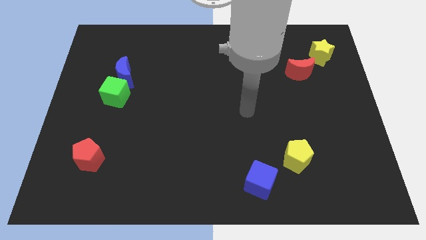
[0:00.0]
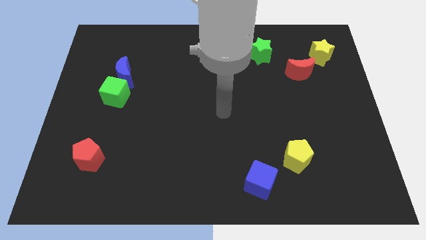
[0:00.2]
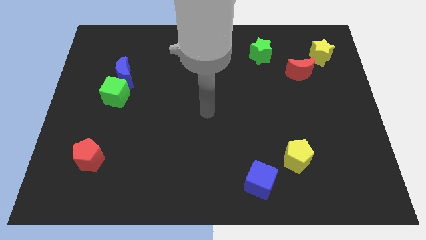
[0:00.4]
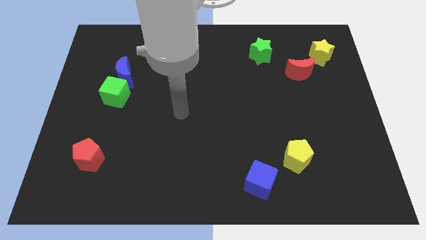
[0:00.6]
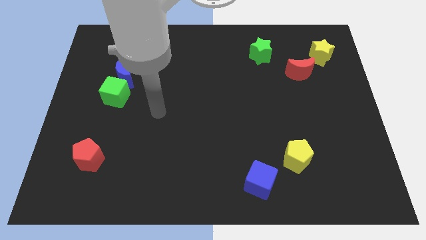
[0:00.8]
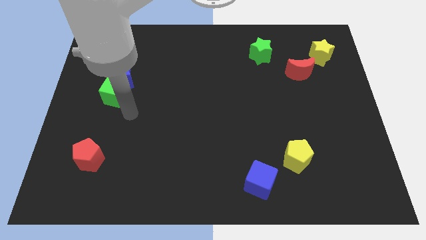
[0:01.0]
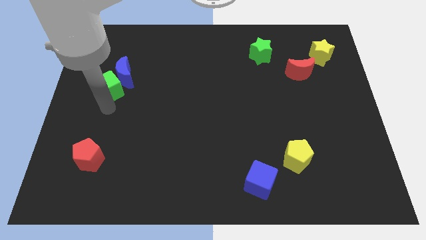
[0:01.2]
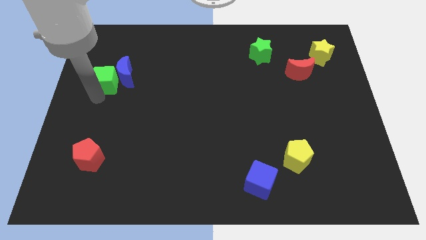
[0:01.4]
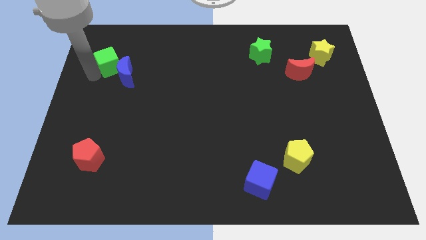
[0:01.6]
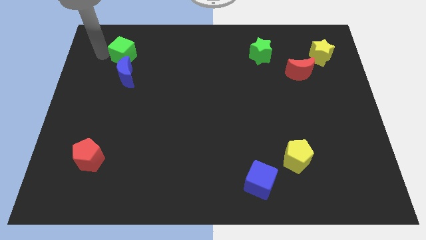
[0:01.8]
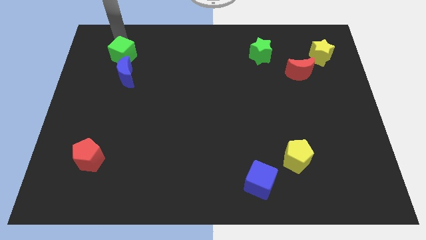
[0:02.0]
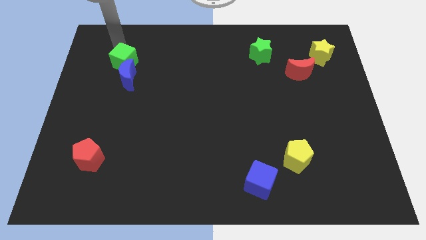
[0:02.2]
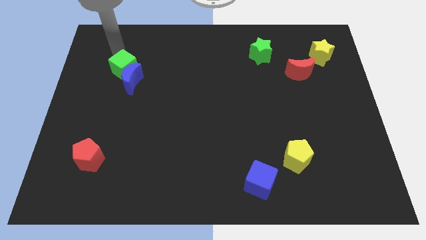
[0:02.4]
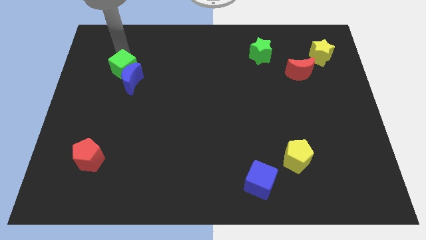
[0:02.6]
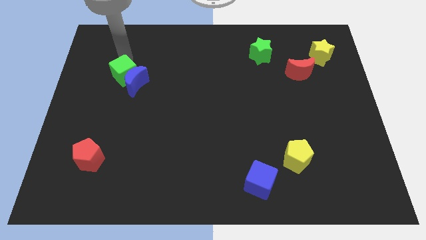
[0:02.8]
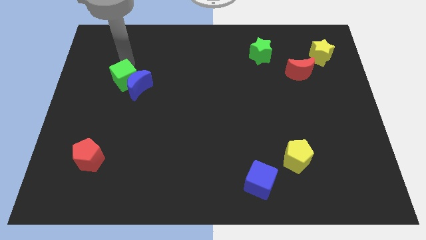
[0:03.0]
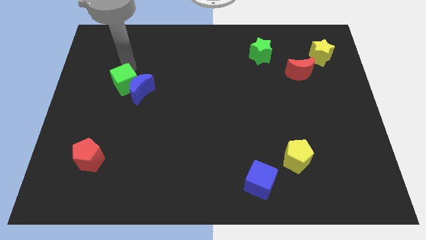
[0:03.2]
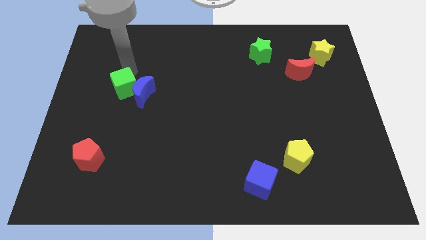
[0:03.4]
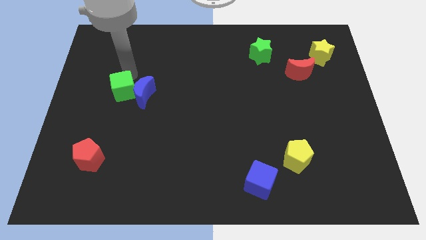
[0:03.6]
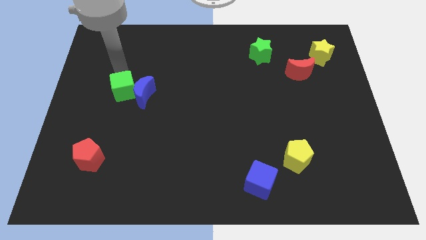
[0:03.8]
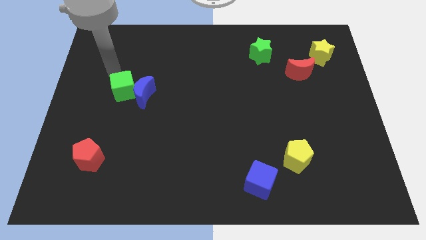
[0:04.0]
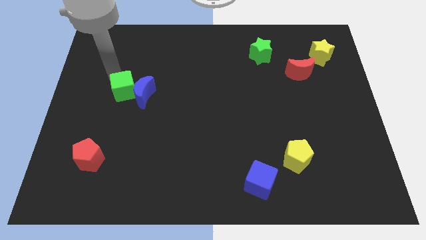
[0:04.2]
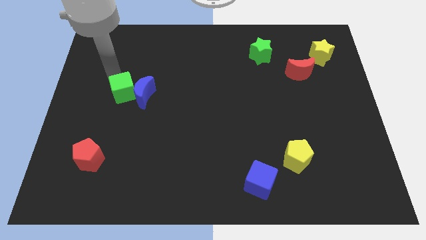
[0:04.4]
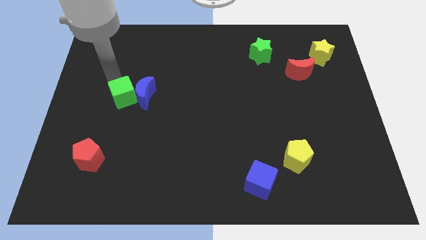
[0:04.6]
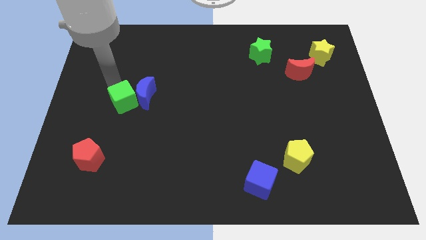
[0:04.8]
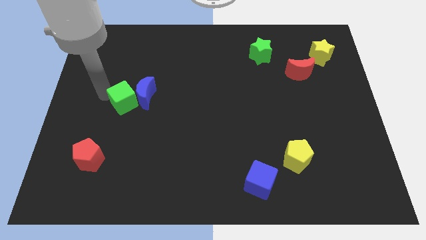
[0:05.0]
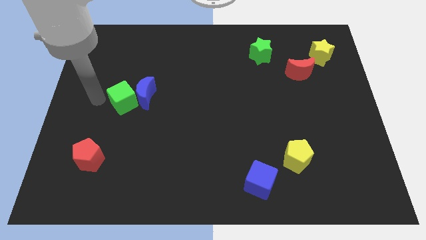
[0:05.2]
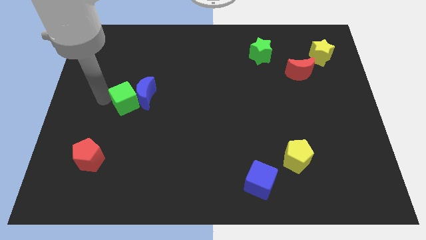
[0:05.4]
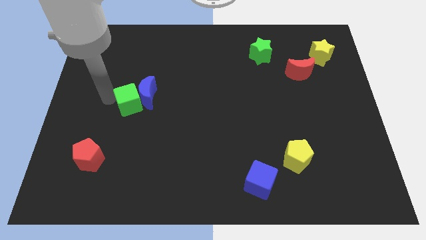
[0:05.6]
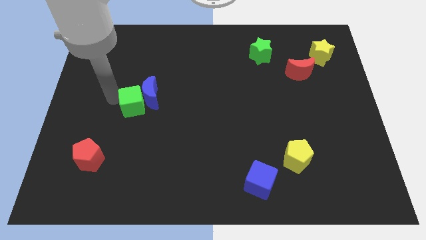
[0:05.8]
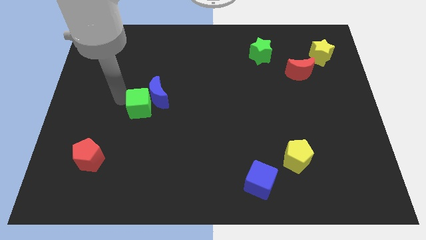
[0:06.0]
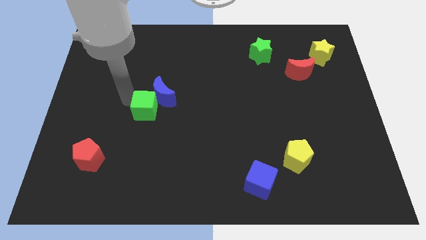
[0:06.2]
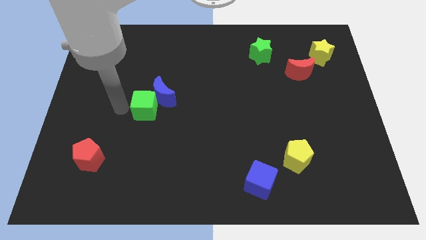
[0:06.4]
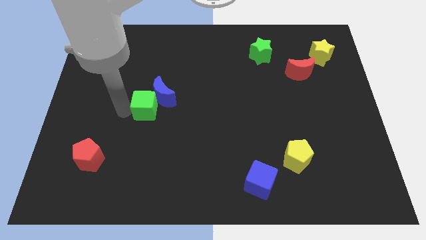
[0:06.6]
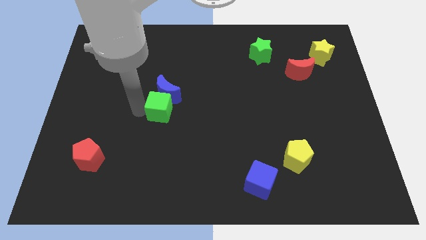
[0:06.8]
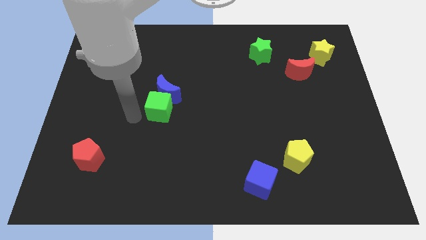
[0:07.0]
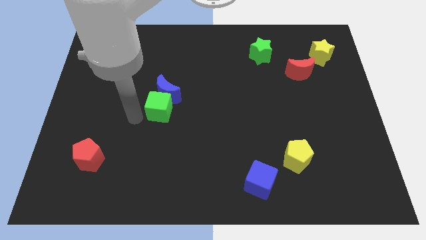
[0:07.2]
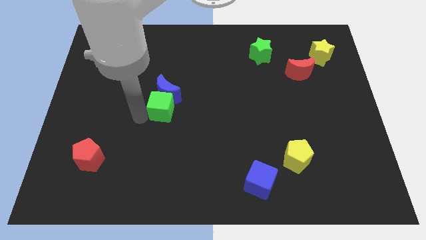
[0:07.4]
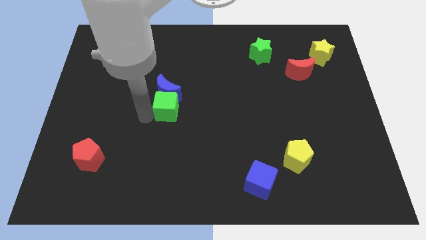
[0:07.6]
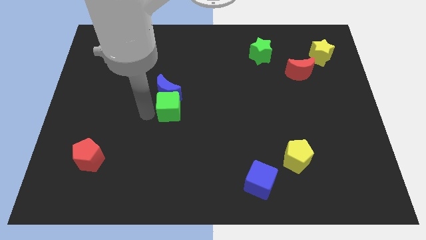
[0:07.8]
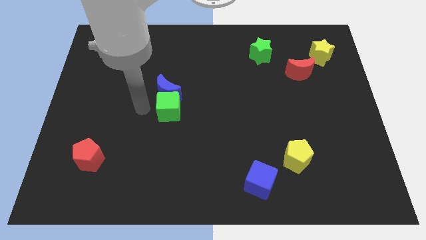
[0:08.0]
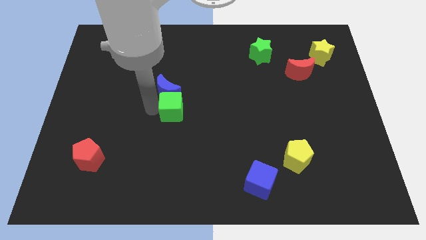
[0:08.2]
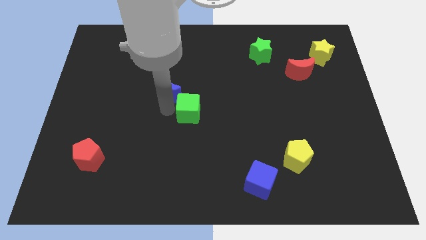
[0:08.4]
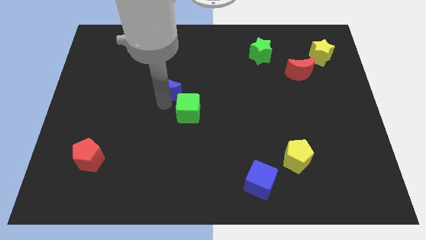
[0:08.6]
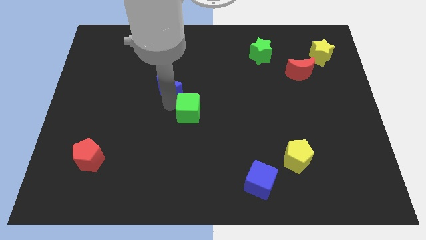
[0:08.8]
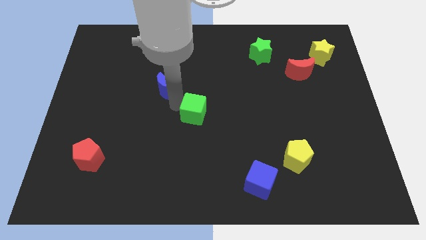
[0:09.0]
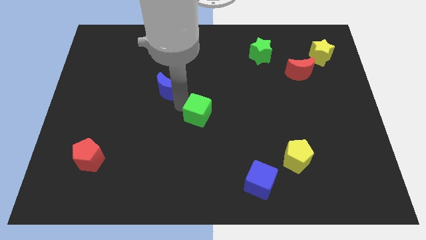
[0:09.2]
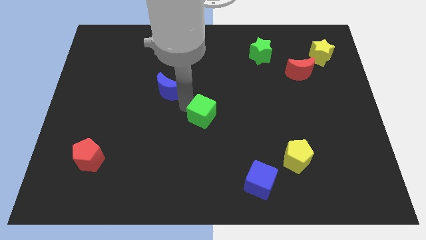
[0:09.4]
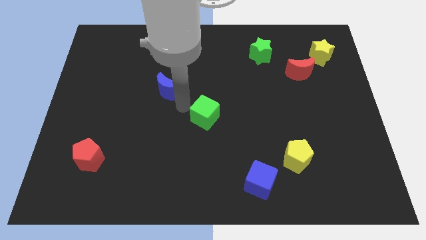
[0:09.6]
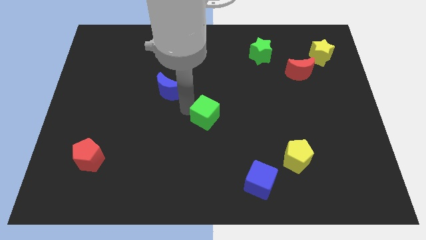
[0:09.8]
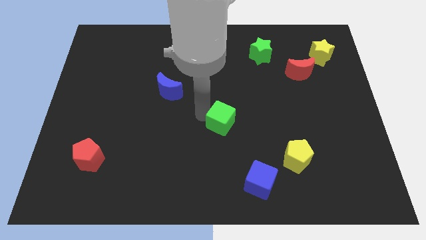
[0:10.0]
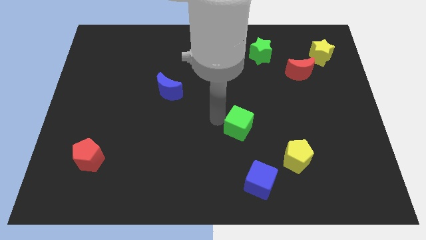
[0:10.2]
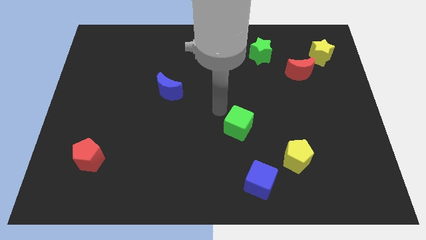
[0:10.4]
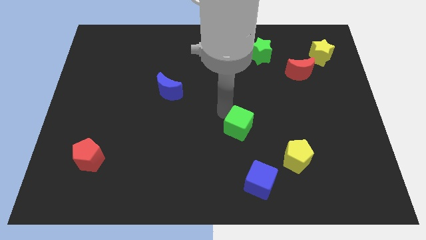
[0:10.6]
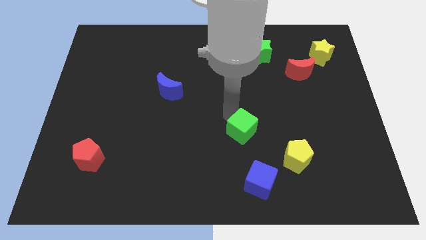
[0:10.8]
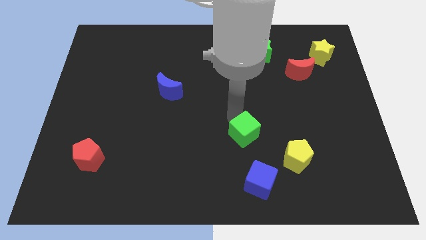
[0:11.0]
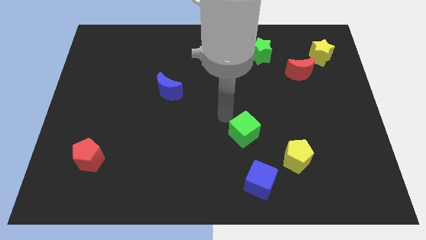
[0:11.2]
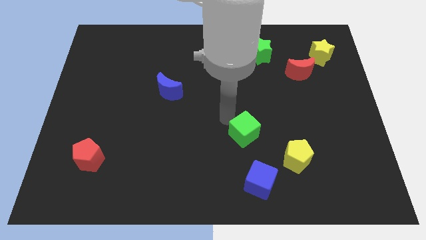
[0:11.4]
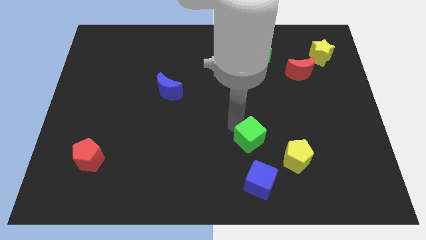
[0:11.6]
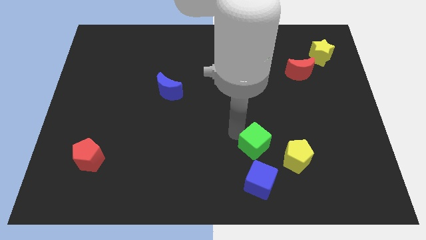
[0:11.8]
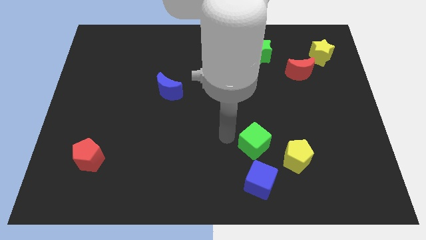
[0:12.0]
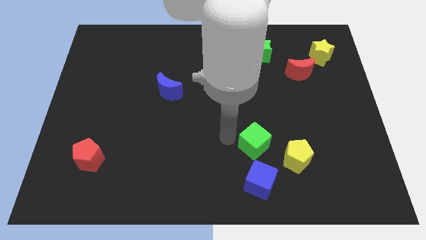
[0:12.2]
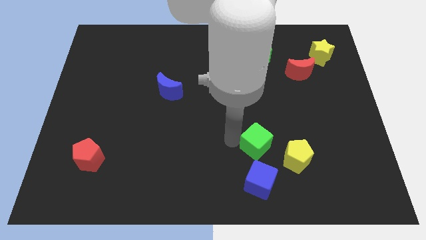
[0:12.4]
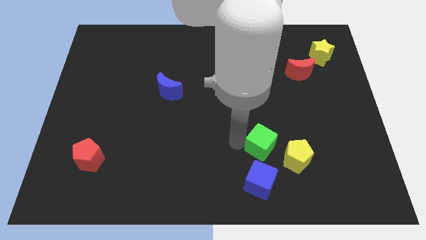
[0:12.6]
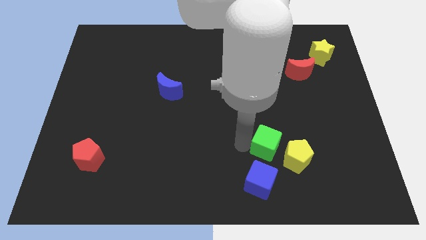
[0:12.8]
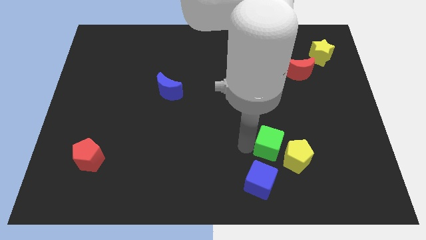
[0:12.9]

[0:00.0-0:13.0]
push the green cube towards the yellow pentagon
